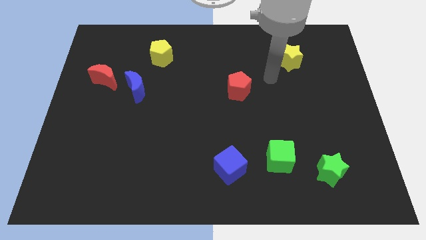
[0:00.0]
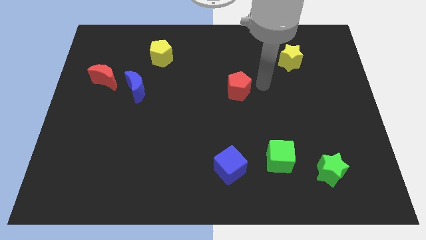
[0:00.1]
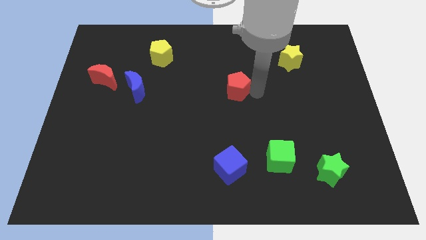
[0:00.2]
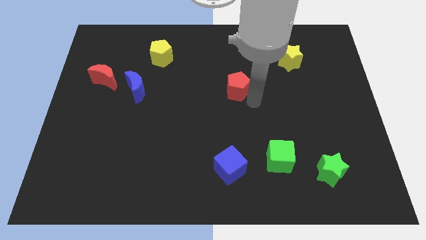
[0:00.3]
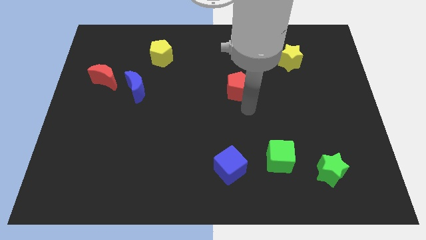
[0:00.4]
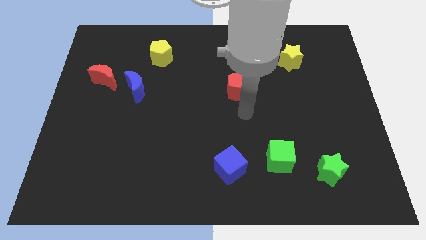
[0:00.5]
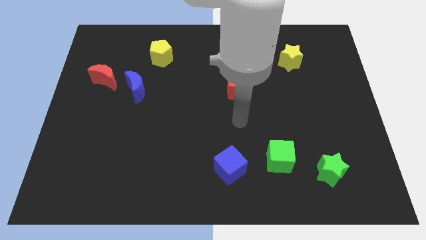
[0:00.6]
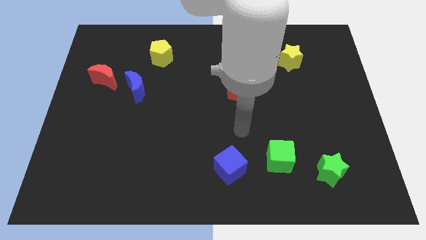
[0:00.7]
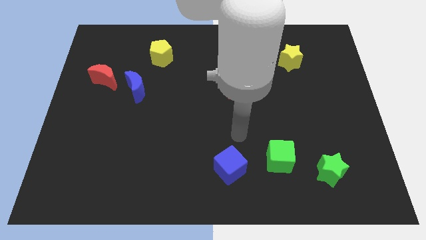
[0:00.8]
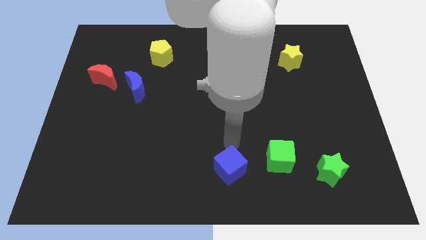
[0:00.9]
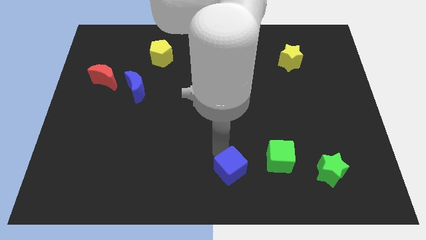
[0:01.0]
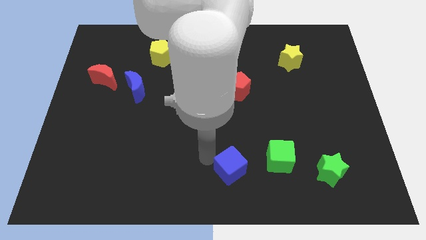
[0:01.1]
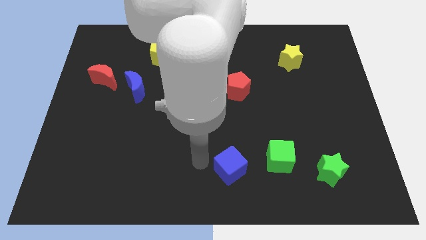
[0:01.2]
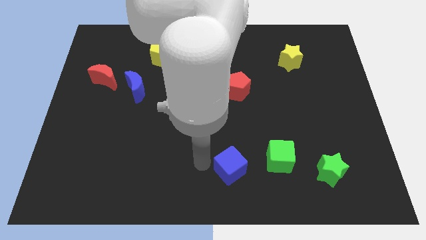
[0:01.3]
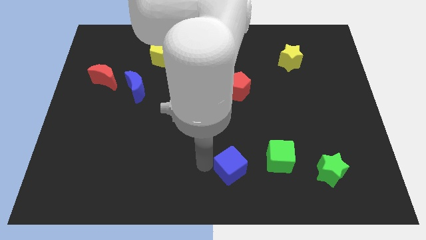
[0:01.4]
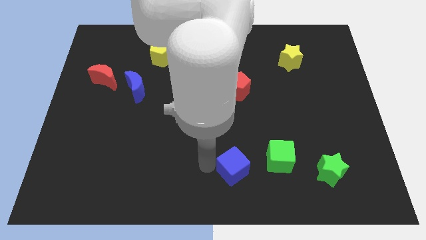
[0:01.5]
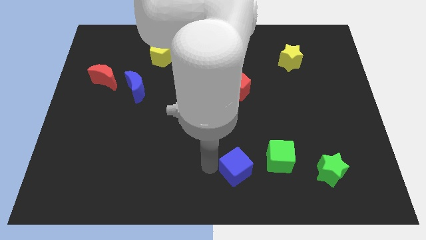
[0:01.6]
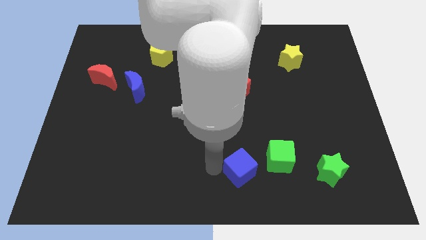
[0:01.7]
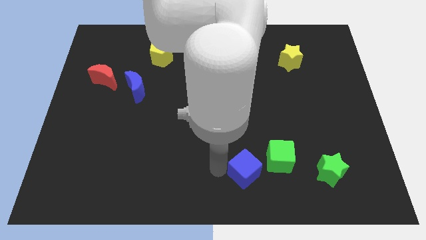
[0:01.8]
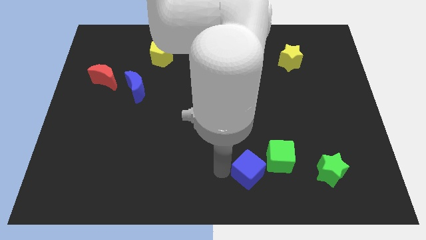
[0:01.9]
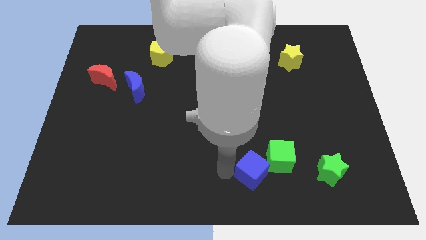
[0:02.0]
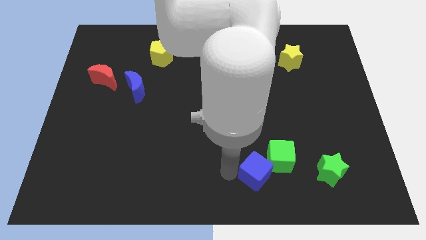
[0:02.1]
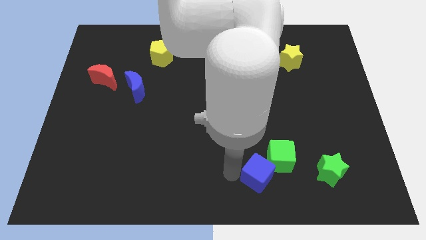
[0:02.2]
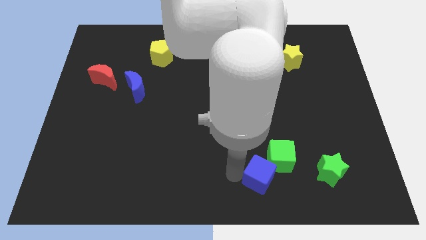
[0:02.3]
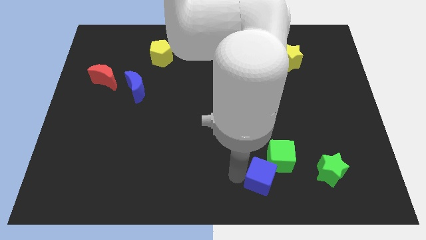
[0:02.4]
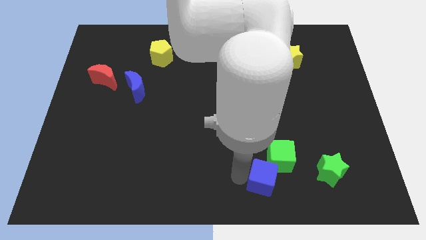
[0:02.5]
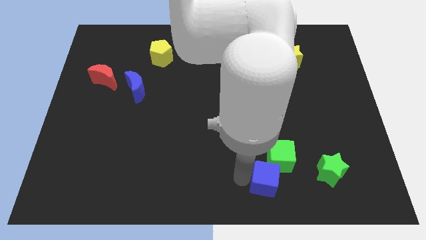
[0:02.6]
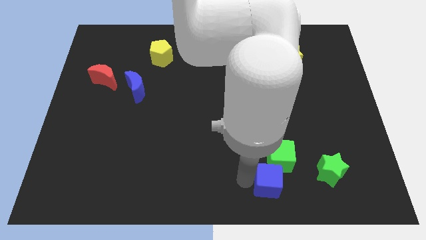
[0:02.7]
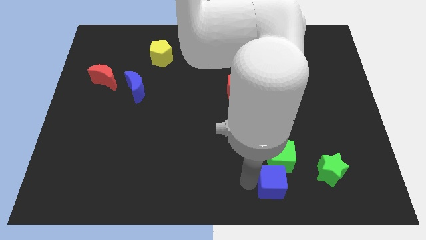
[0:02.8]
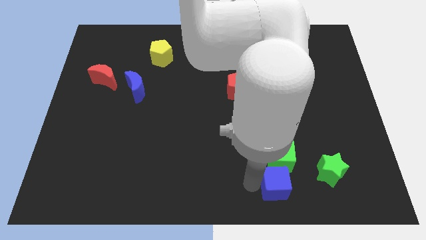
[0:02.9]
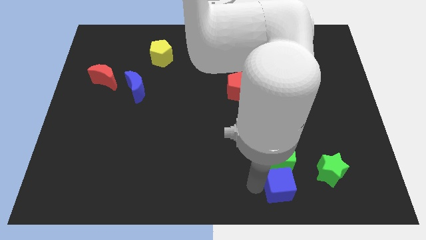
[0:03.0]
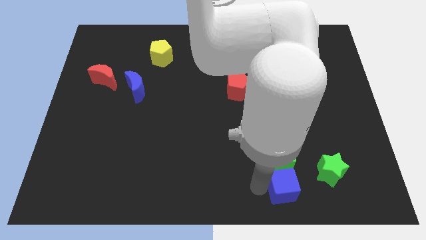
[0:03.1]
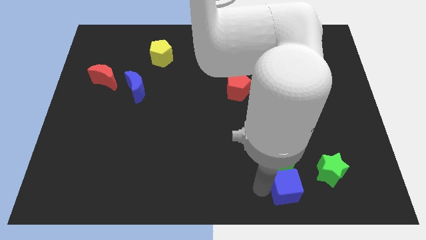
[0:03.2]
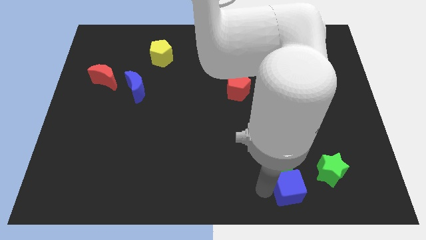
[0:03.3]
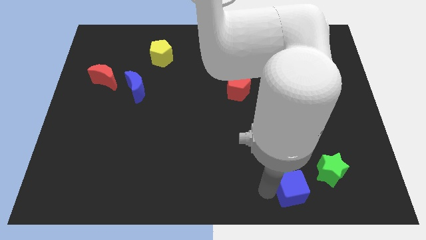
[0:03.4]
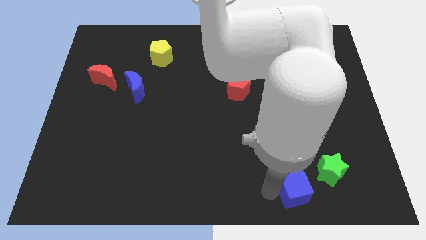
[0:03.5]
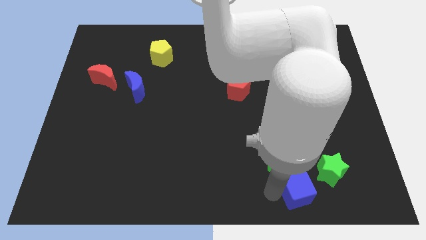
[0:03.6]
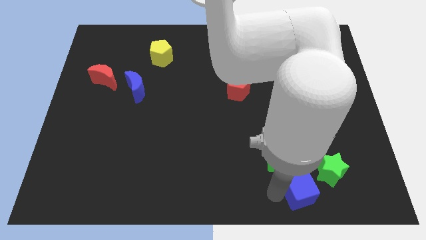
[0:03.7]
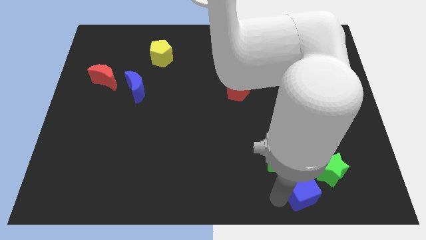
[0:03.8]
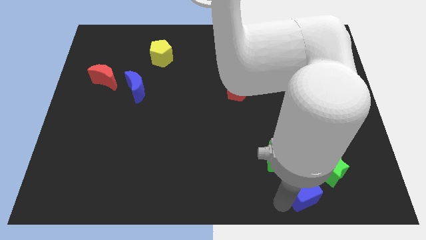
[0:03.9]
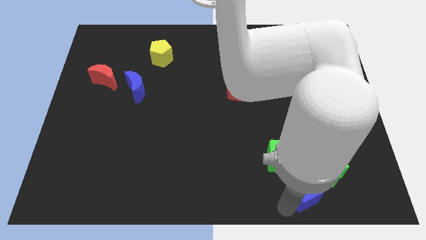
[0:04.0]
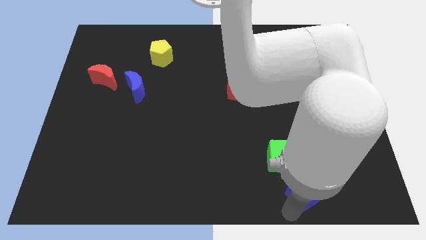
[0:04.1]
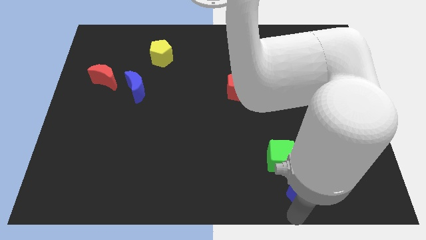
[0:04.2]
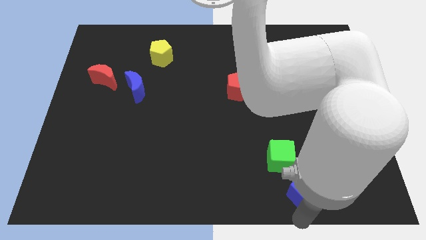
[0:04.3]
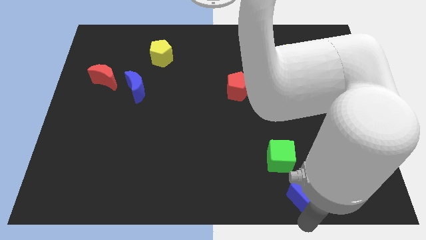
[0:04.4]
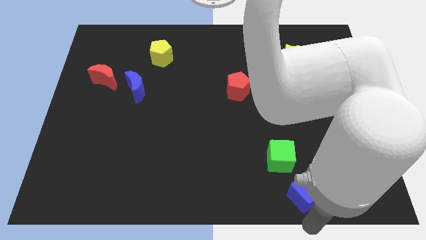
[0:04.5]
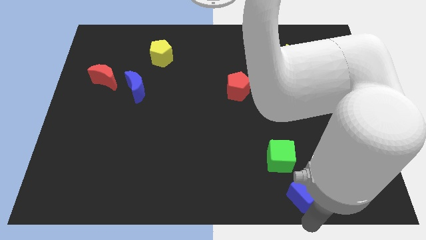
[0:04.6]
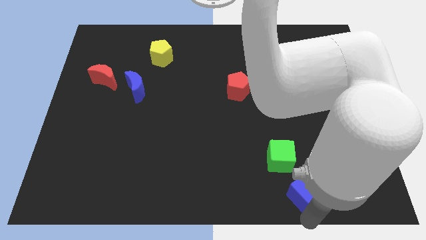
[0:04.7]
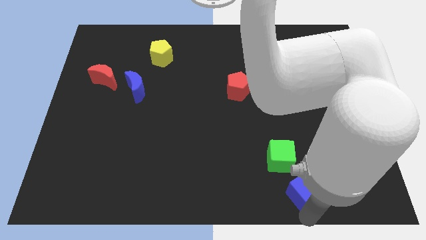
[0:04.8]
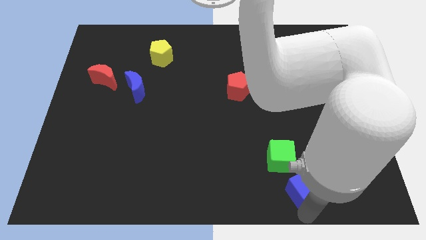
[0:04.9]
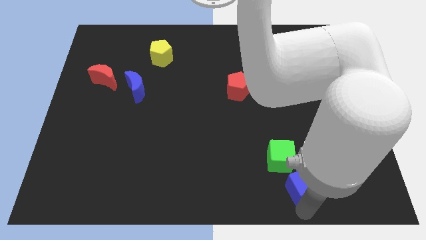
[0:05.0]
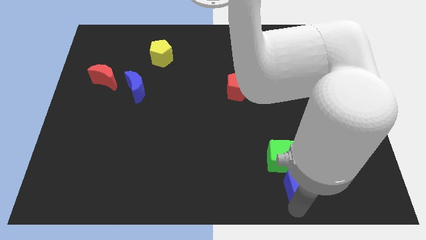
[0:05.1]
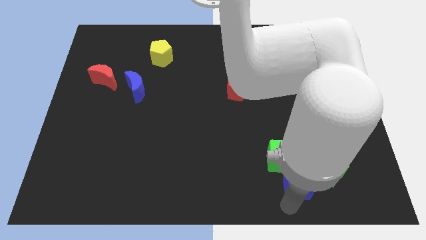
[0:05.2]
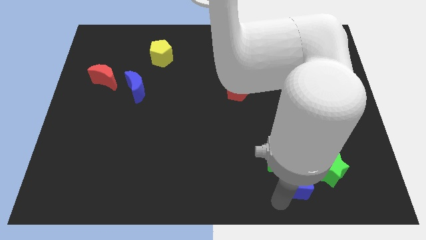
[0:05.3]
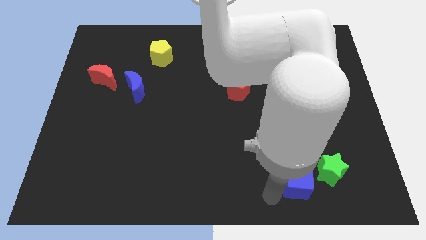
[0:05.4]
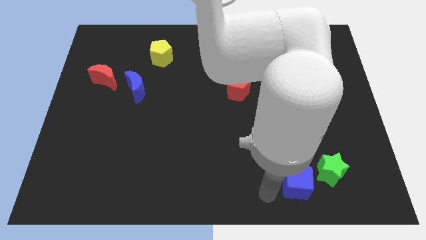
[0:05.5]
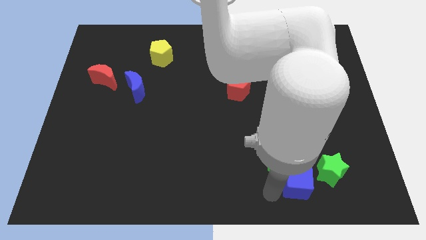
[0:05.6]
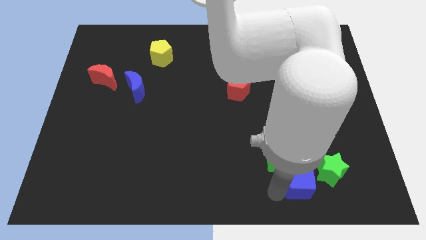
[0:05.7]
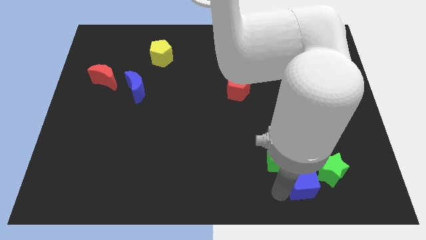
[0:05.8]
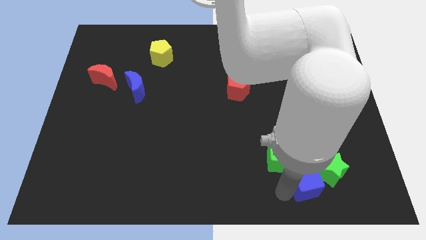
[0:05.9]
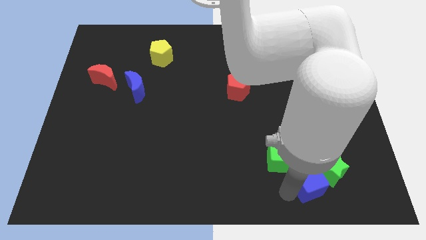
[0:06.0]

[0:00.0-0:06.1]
put the blue cube next to the green star
